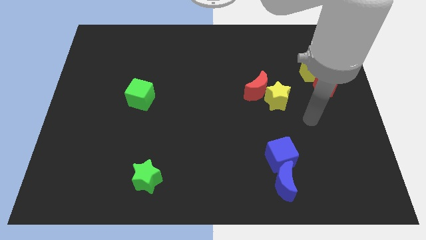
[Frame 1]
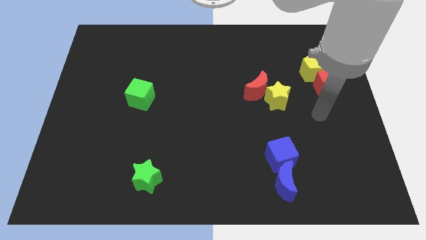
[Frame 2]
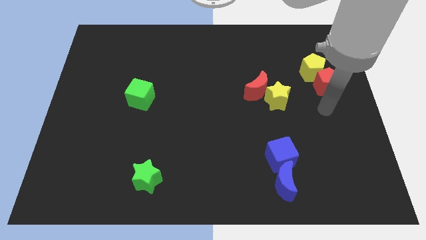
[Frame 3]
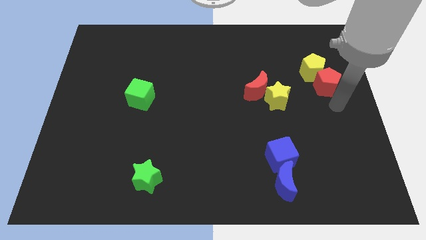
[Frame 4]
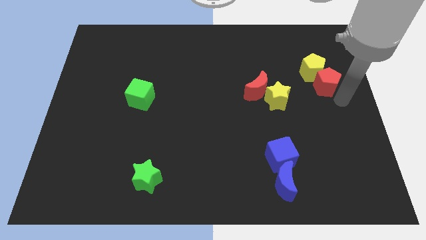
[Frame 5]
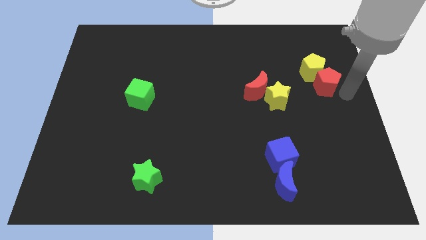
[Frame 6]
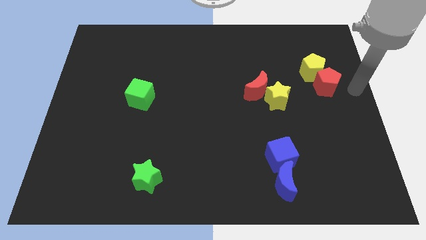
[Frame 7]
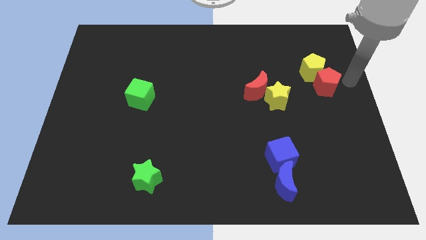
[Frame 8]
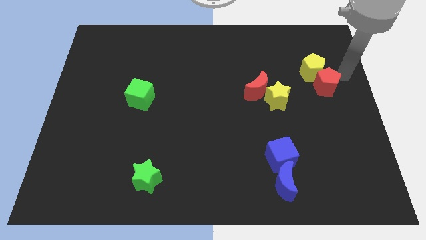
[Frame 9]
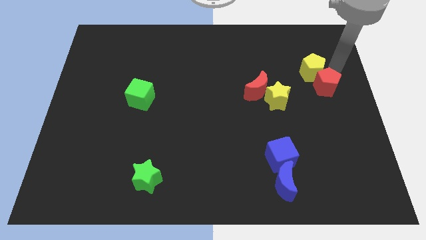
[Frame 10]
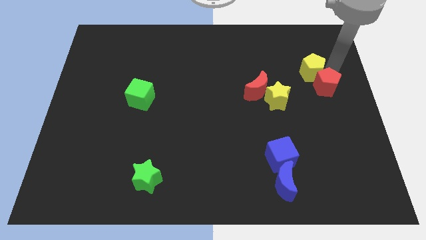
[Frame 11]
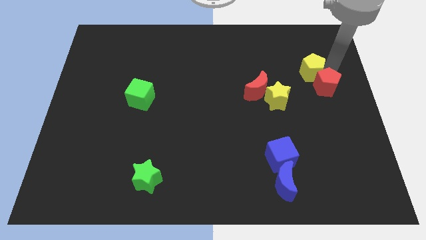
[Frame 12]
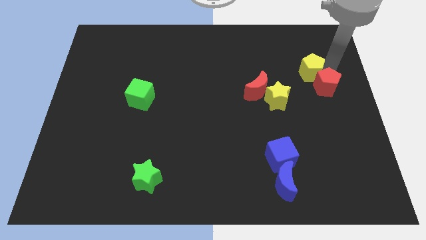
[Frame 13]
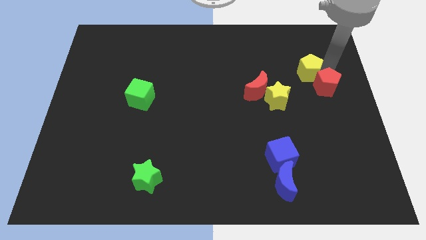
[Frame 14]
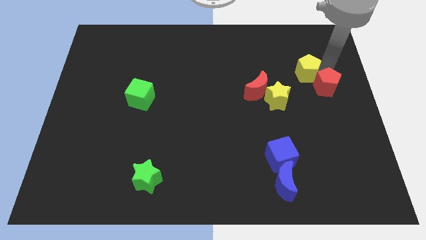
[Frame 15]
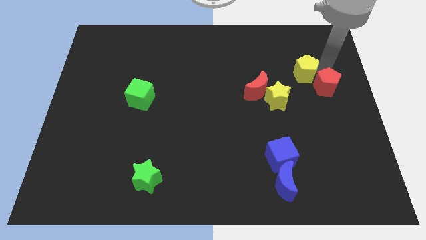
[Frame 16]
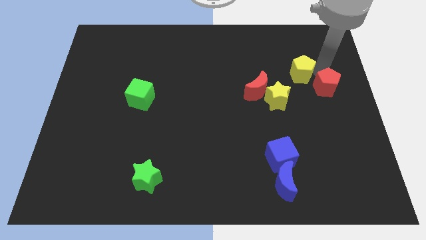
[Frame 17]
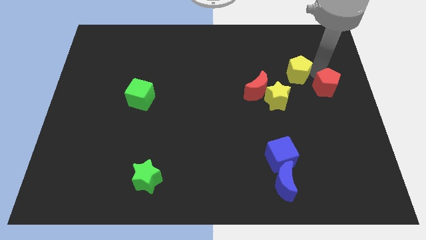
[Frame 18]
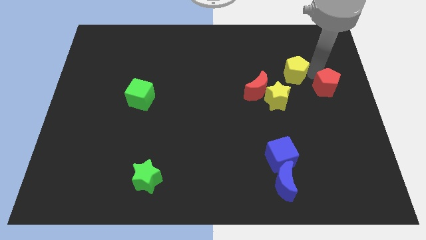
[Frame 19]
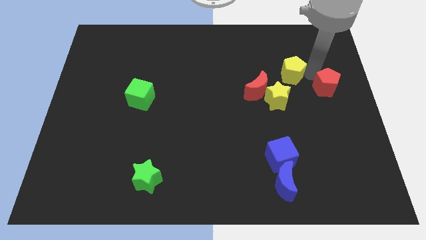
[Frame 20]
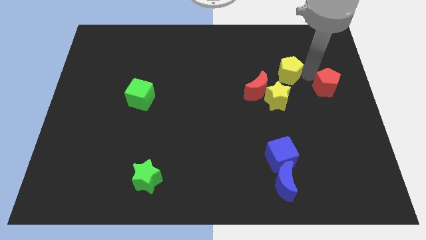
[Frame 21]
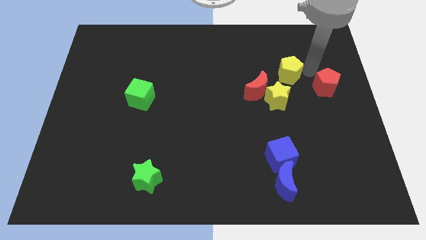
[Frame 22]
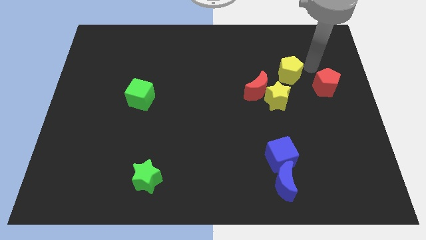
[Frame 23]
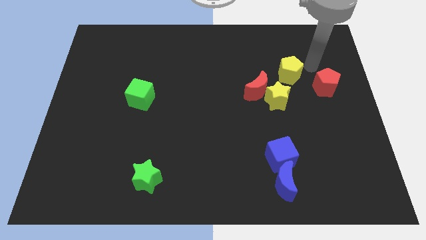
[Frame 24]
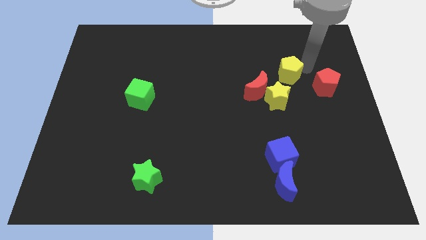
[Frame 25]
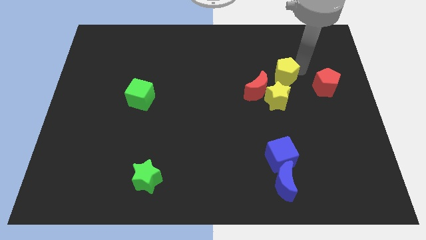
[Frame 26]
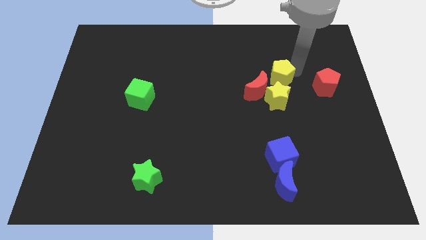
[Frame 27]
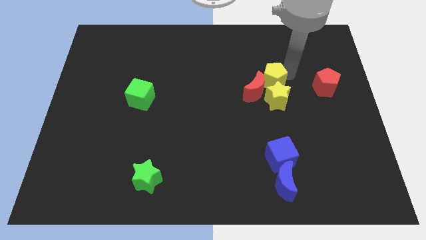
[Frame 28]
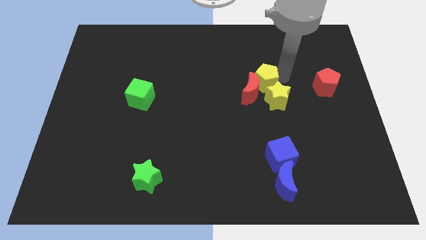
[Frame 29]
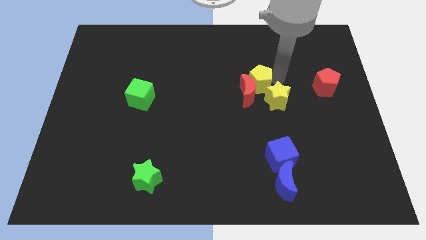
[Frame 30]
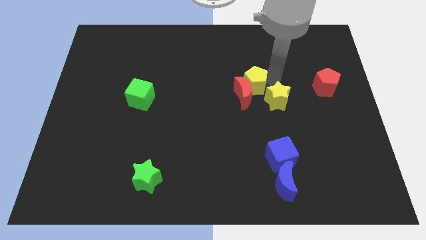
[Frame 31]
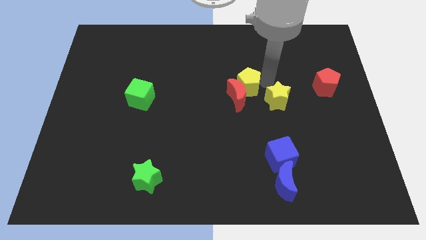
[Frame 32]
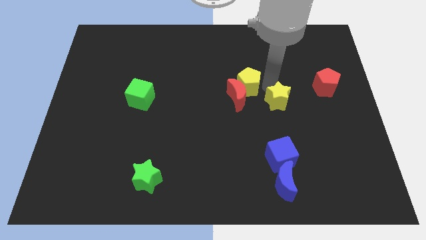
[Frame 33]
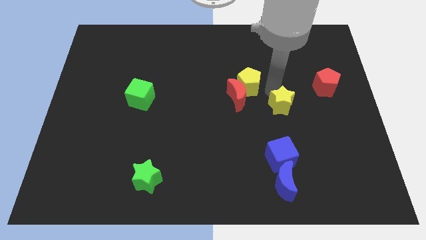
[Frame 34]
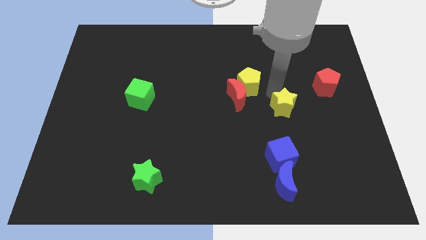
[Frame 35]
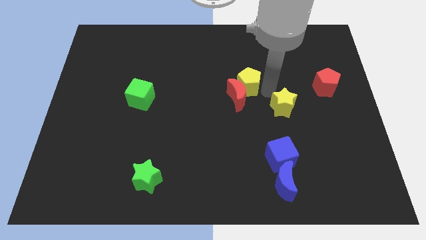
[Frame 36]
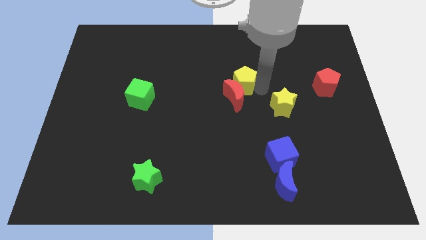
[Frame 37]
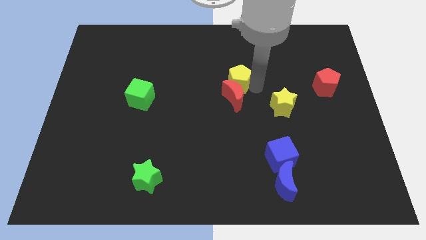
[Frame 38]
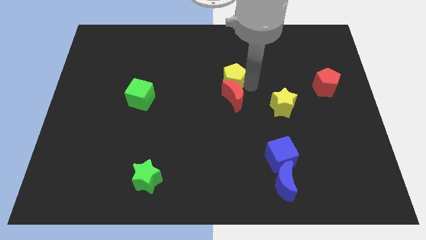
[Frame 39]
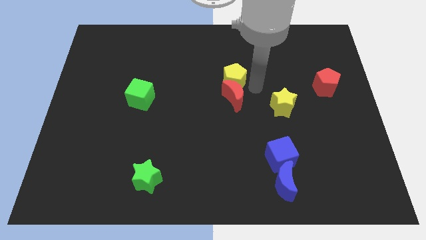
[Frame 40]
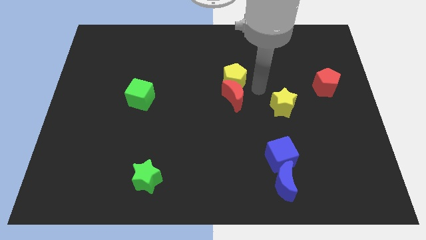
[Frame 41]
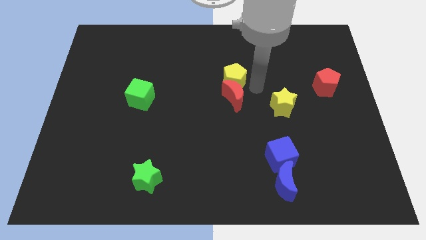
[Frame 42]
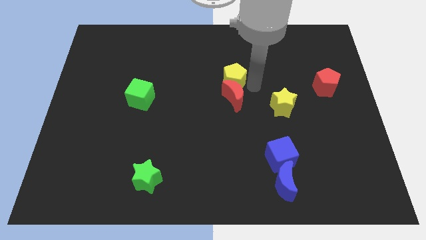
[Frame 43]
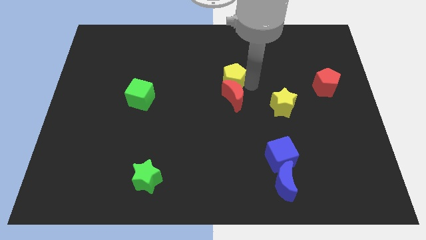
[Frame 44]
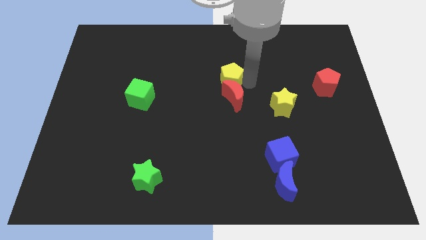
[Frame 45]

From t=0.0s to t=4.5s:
move the yellow pentagon to the left

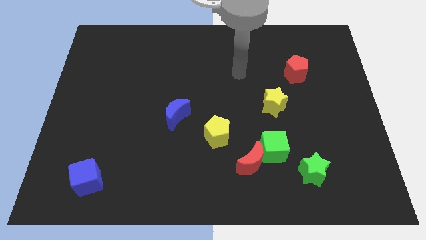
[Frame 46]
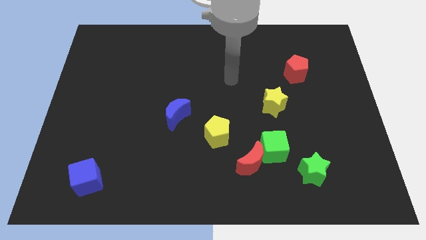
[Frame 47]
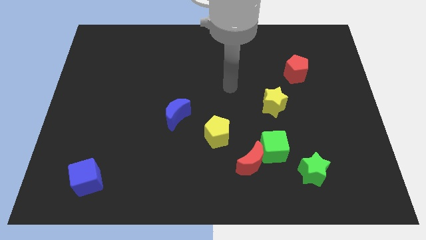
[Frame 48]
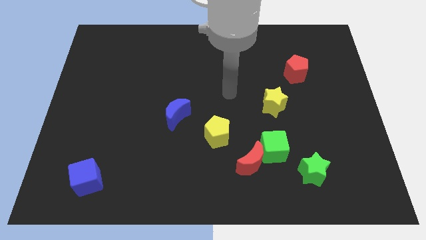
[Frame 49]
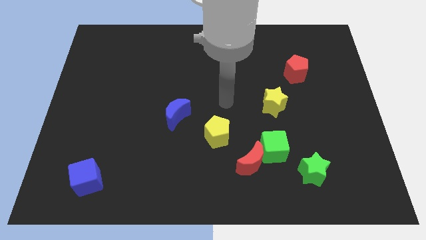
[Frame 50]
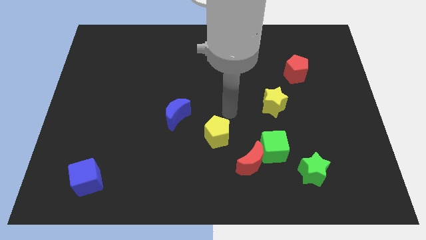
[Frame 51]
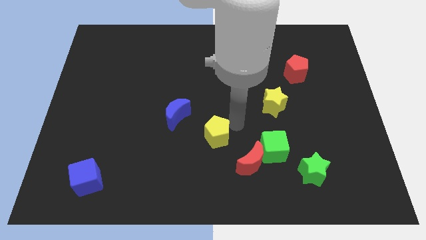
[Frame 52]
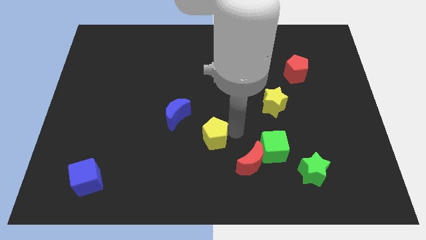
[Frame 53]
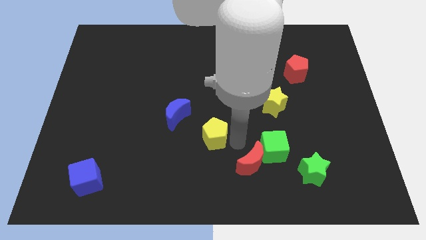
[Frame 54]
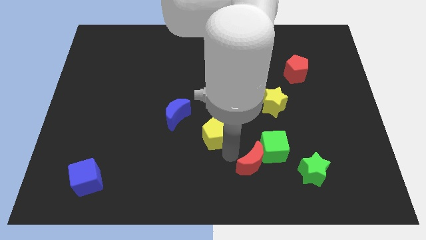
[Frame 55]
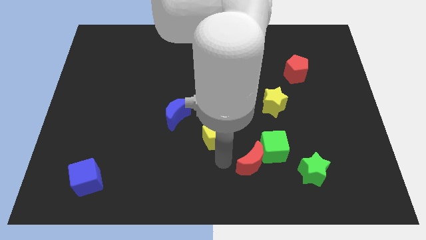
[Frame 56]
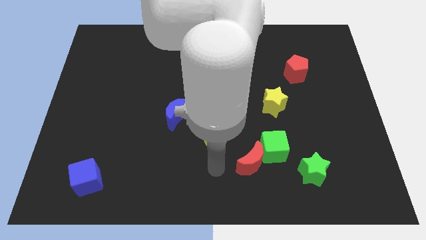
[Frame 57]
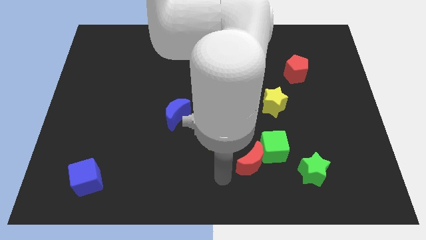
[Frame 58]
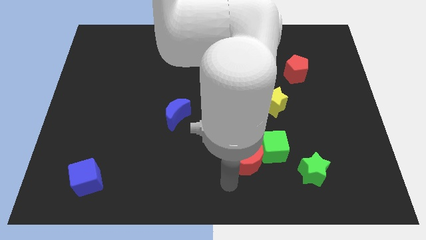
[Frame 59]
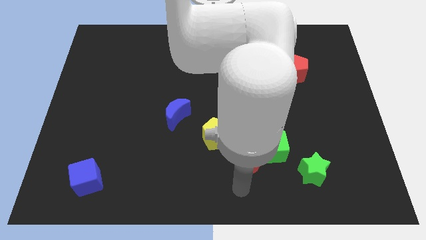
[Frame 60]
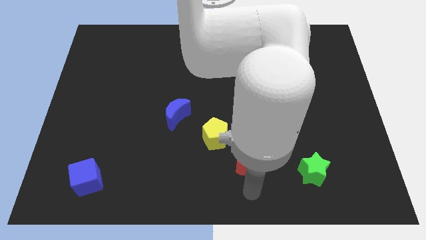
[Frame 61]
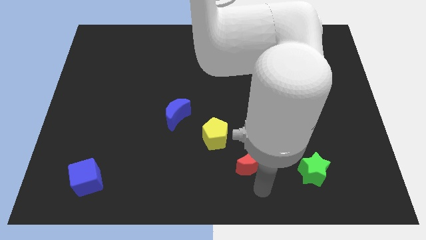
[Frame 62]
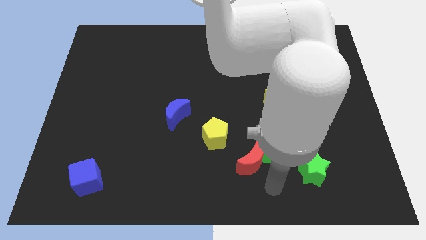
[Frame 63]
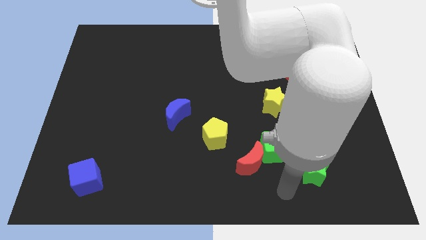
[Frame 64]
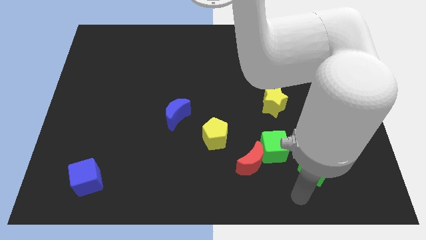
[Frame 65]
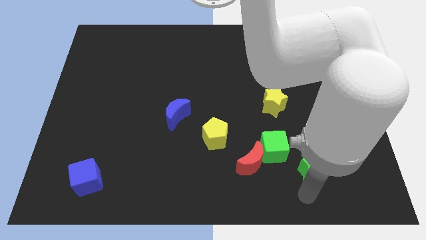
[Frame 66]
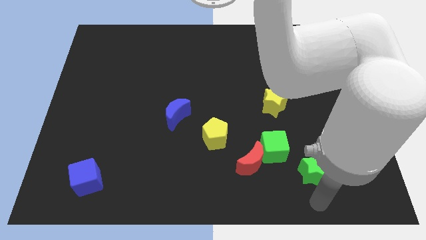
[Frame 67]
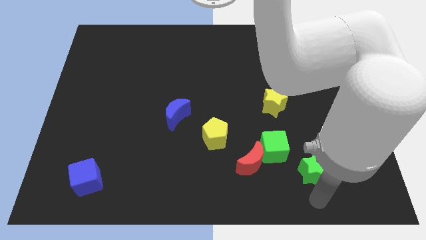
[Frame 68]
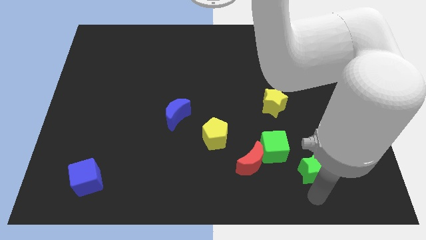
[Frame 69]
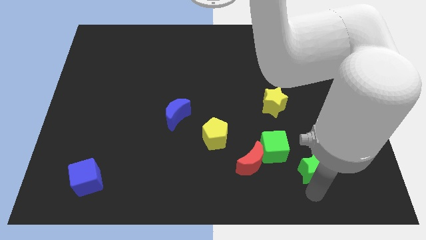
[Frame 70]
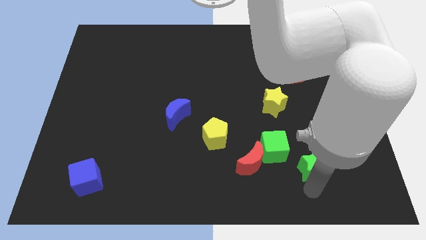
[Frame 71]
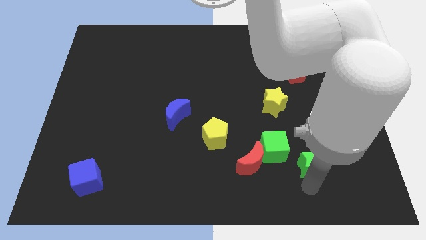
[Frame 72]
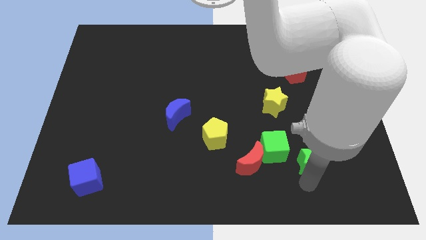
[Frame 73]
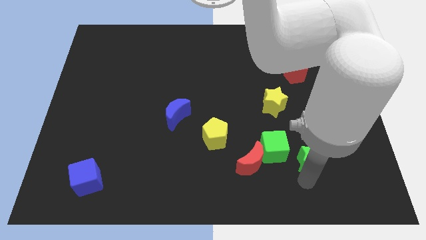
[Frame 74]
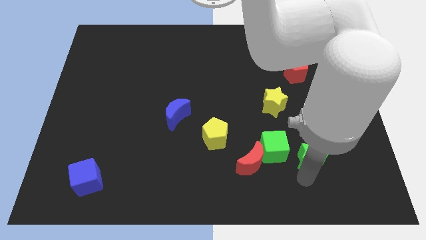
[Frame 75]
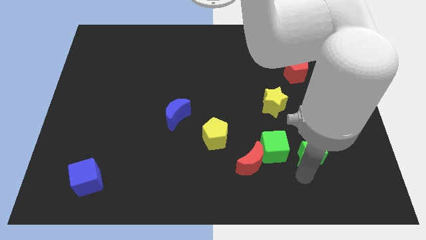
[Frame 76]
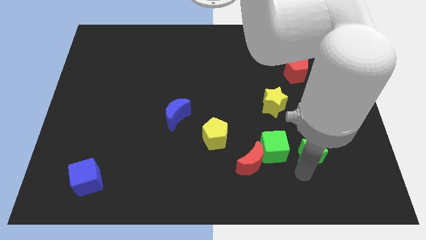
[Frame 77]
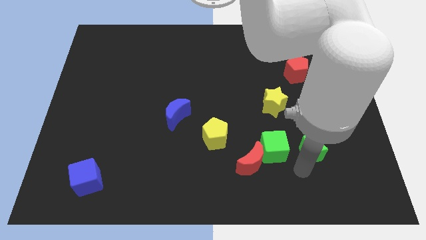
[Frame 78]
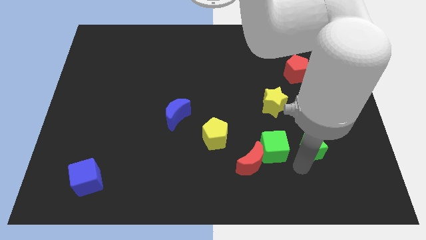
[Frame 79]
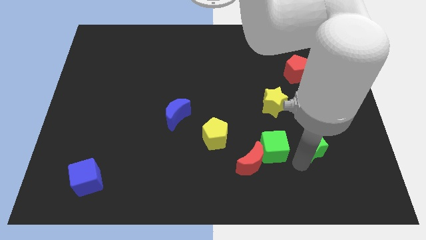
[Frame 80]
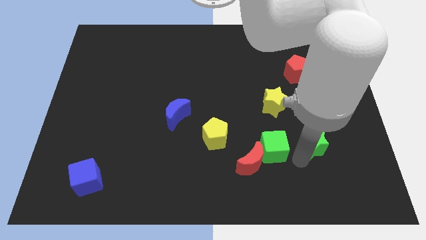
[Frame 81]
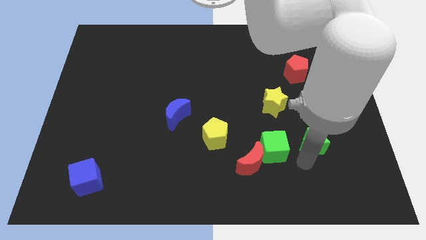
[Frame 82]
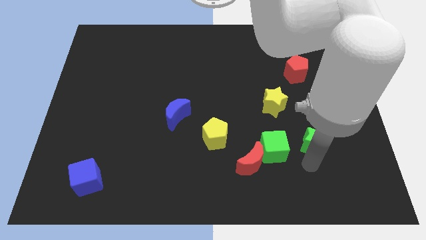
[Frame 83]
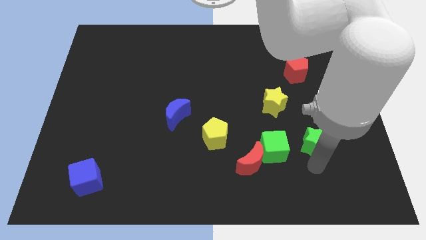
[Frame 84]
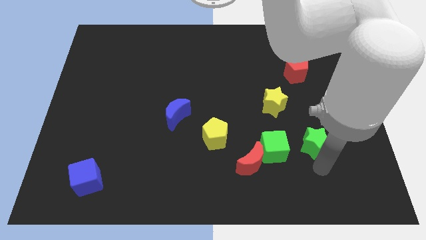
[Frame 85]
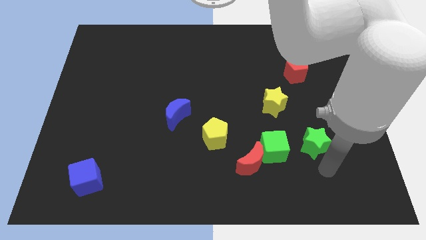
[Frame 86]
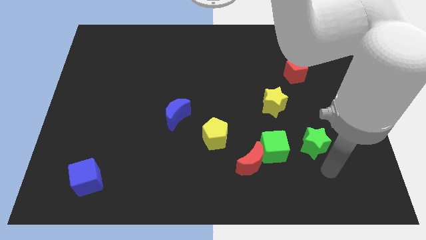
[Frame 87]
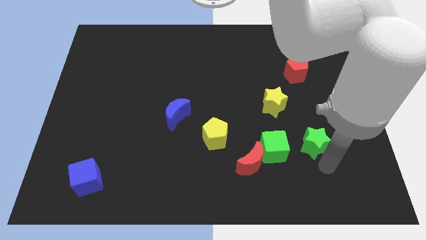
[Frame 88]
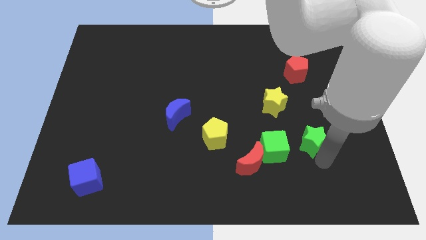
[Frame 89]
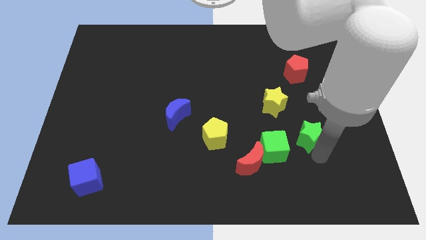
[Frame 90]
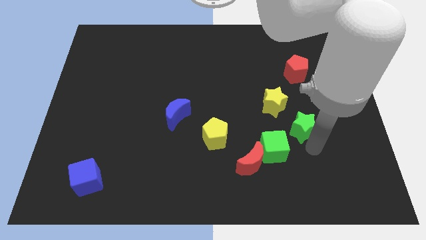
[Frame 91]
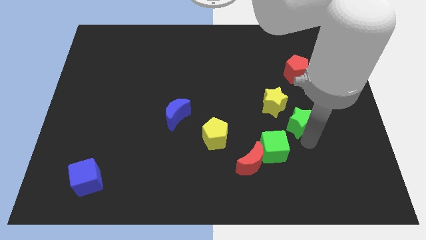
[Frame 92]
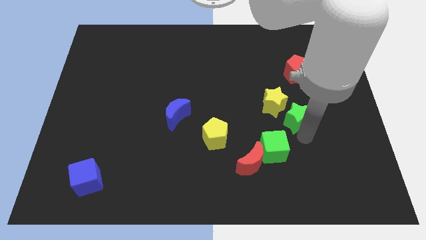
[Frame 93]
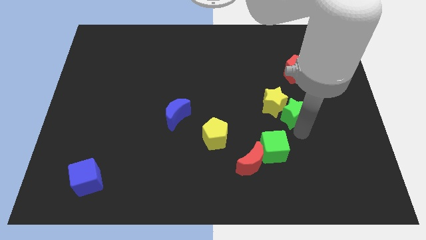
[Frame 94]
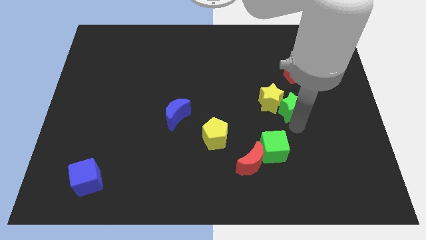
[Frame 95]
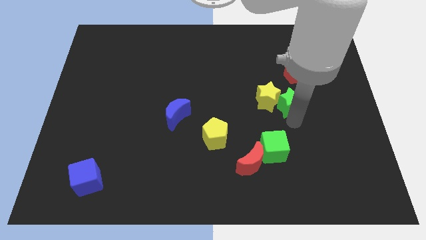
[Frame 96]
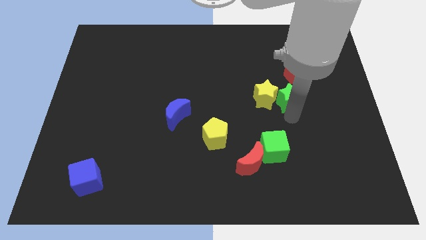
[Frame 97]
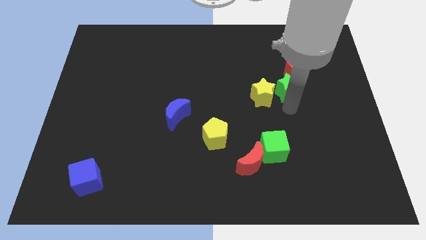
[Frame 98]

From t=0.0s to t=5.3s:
push the green star upwards
